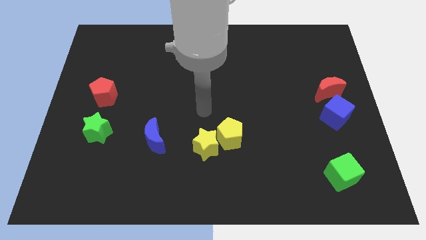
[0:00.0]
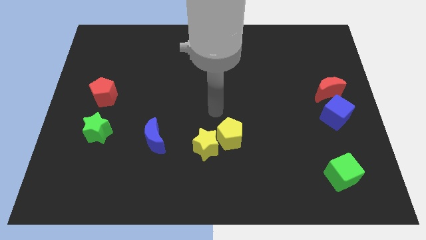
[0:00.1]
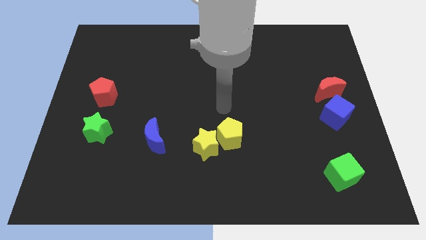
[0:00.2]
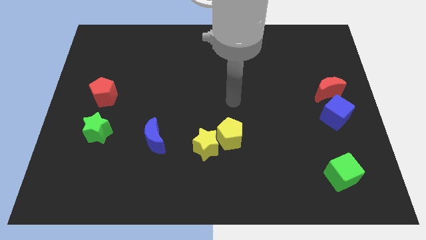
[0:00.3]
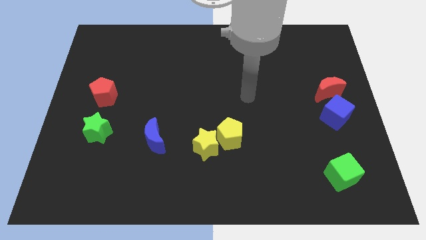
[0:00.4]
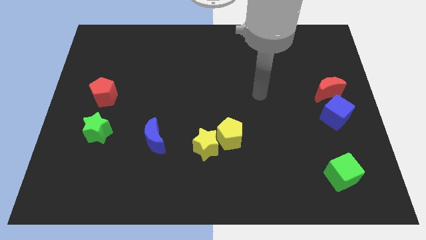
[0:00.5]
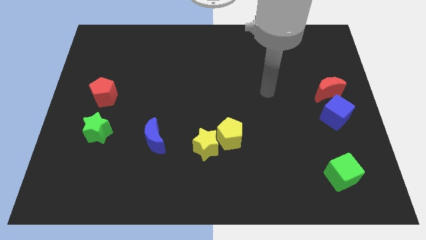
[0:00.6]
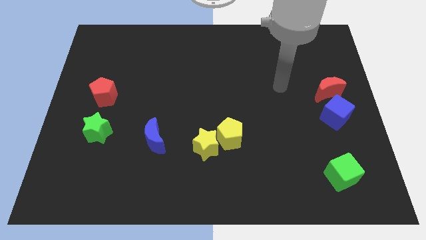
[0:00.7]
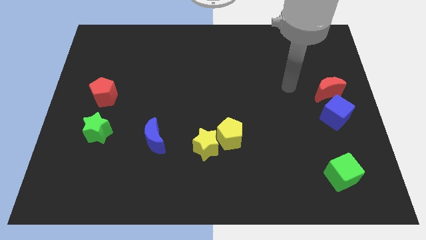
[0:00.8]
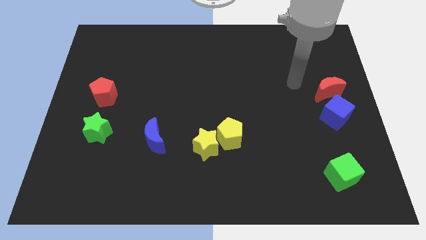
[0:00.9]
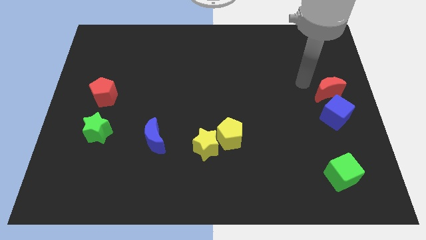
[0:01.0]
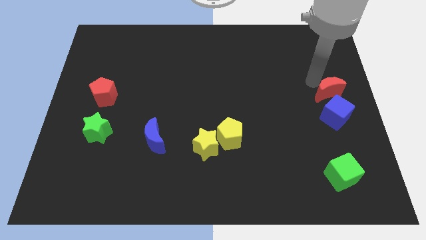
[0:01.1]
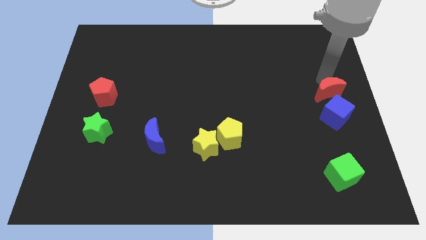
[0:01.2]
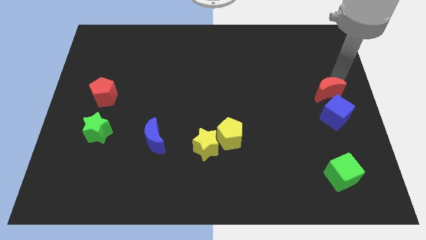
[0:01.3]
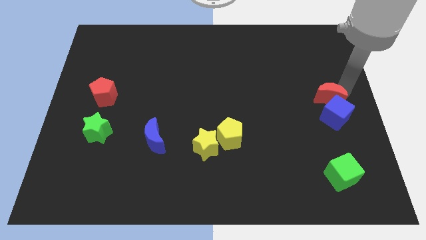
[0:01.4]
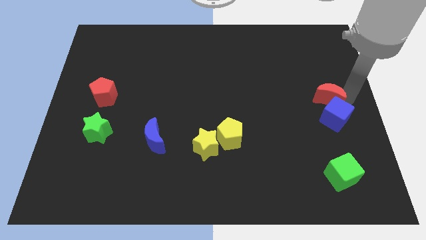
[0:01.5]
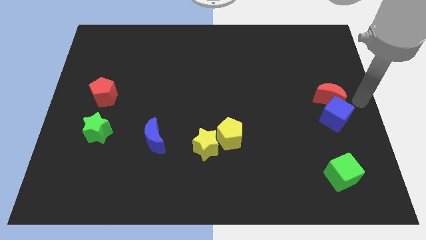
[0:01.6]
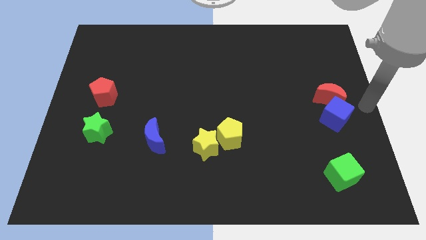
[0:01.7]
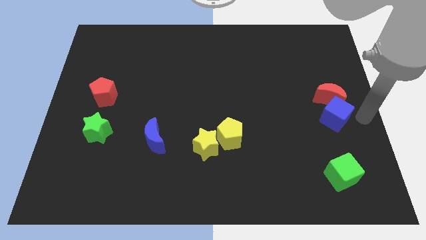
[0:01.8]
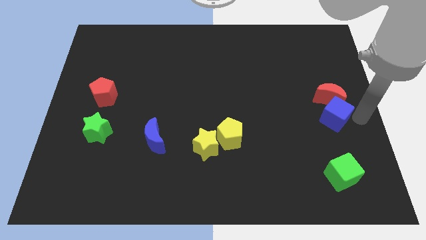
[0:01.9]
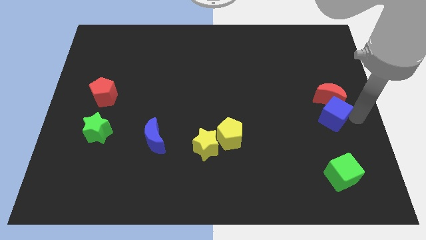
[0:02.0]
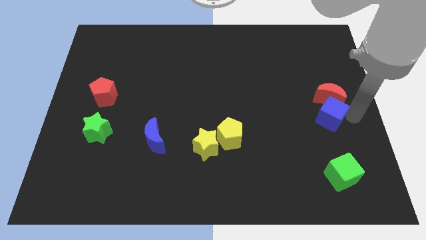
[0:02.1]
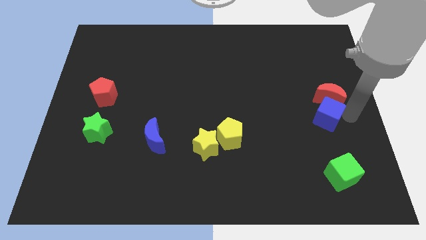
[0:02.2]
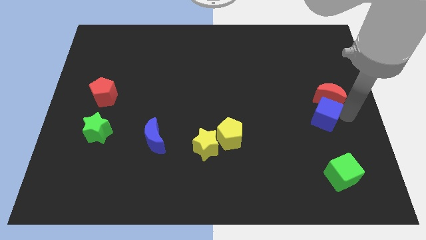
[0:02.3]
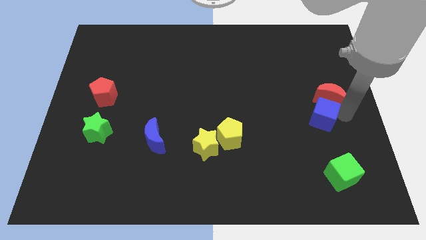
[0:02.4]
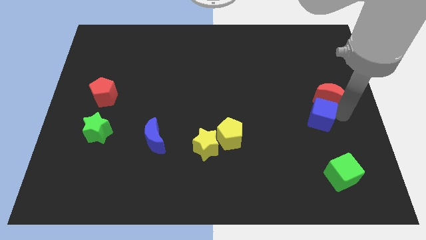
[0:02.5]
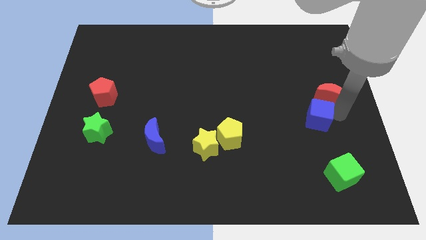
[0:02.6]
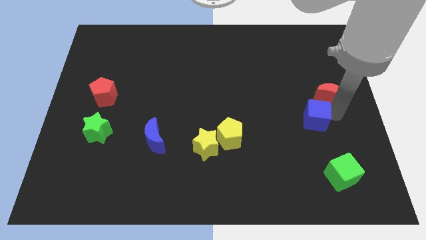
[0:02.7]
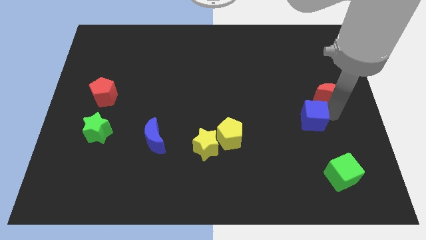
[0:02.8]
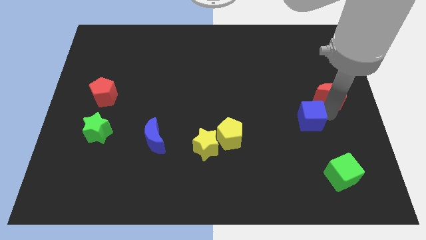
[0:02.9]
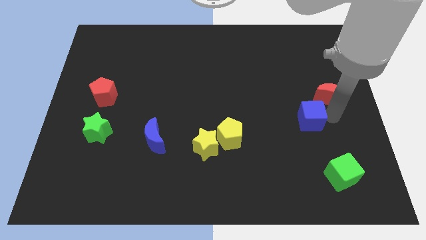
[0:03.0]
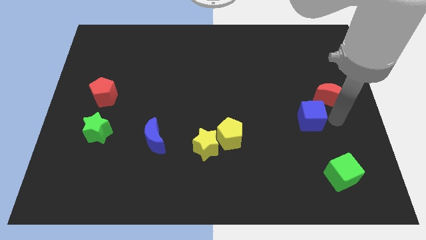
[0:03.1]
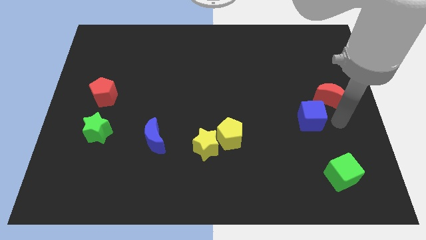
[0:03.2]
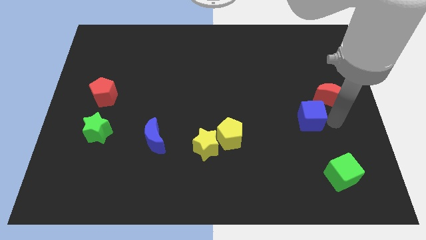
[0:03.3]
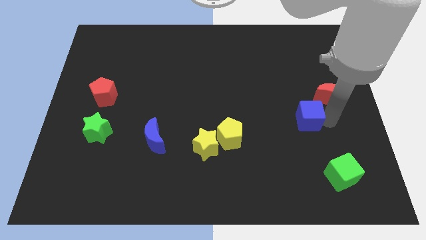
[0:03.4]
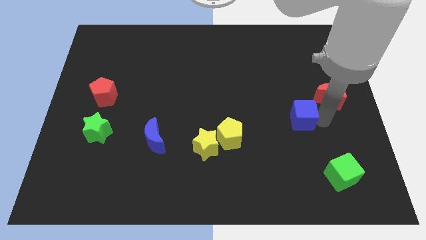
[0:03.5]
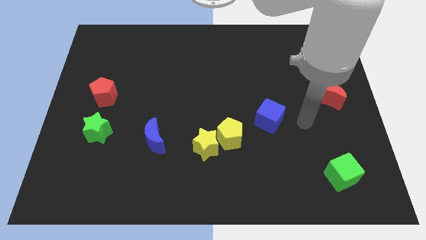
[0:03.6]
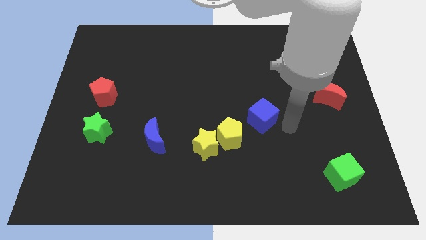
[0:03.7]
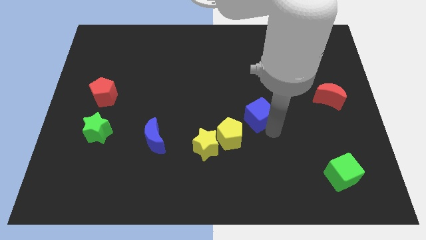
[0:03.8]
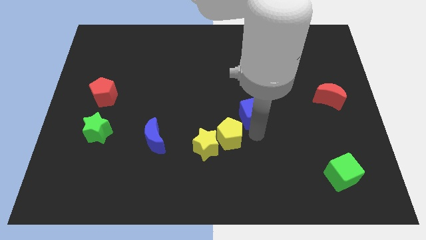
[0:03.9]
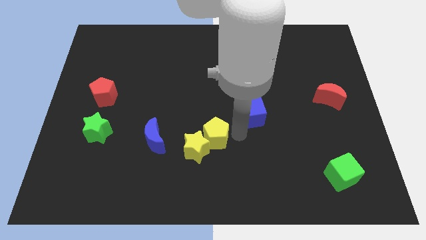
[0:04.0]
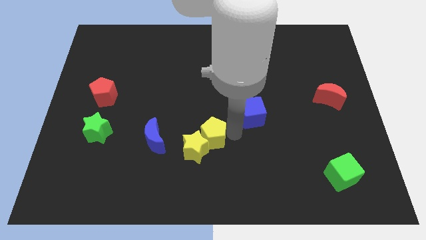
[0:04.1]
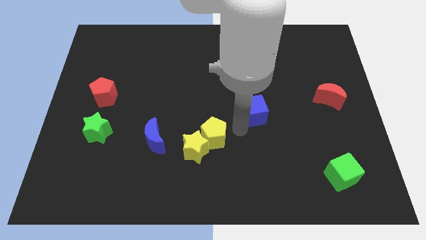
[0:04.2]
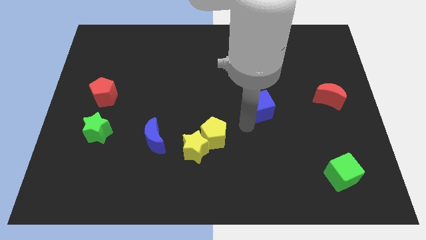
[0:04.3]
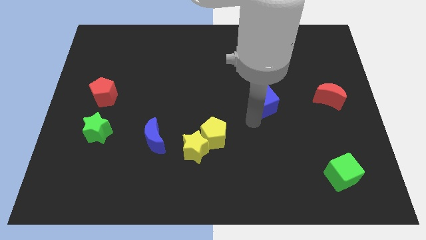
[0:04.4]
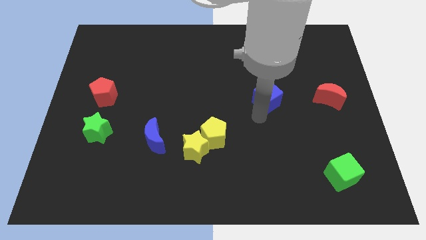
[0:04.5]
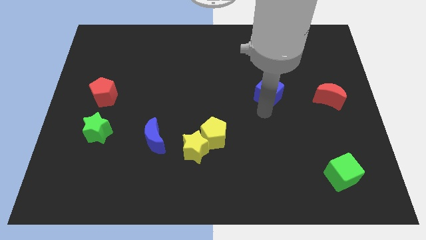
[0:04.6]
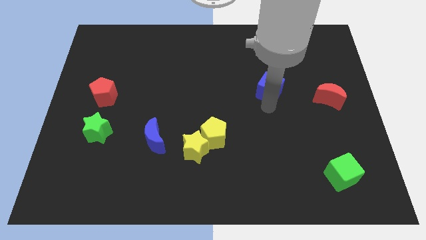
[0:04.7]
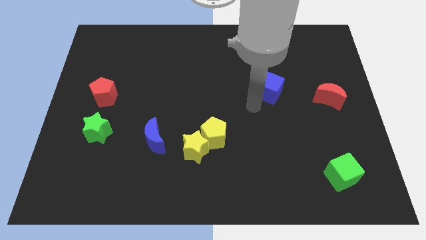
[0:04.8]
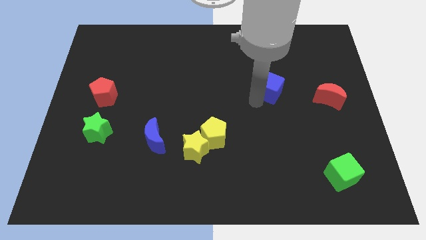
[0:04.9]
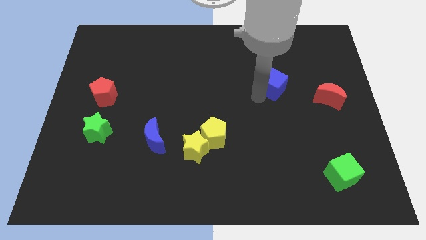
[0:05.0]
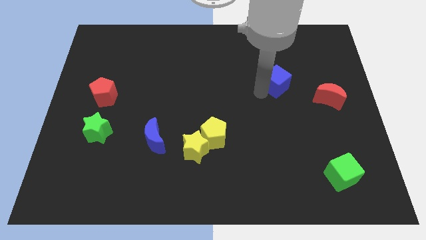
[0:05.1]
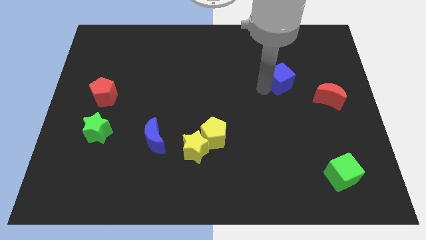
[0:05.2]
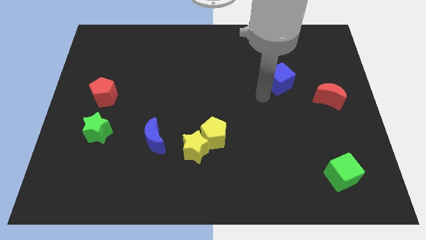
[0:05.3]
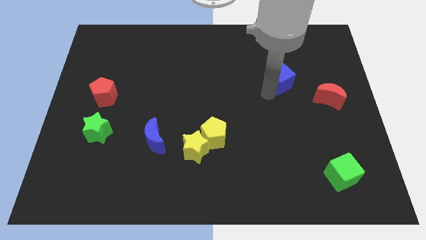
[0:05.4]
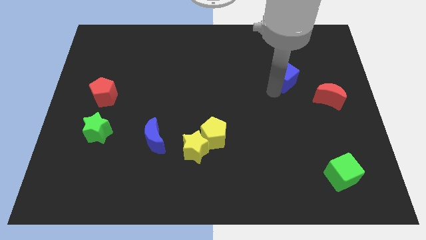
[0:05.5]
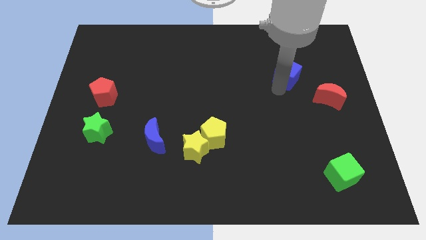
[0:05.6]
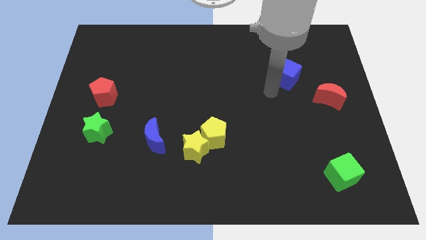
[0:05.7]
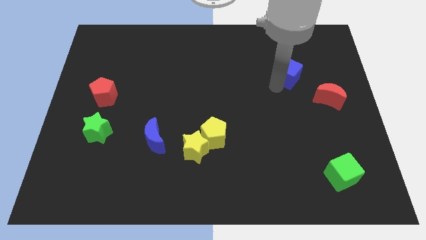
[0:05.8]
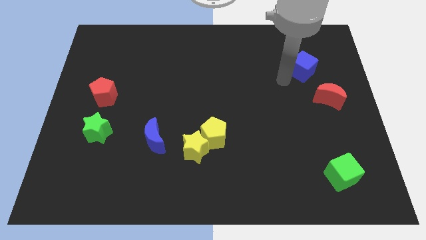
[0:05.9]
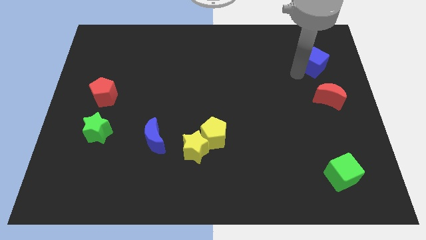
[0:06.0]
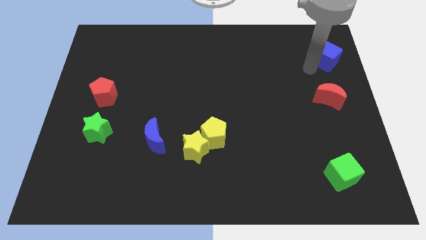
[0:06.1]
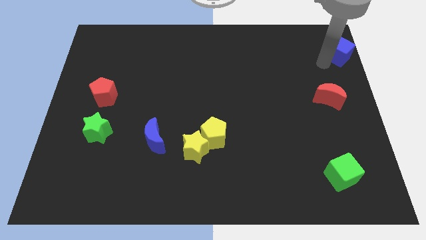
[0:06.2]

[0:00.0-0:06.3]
slide the blue cube to the top right of the board
